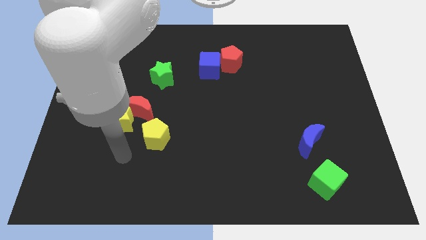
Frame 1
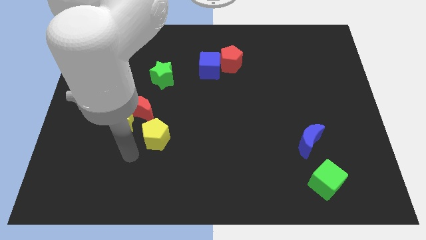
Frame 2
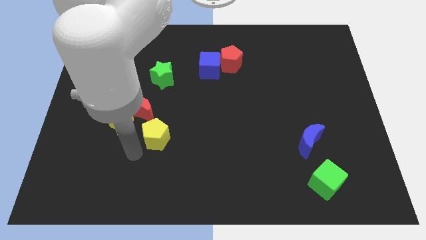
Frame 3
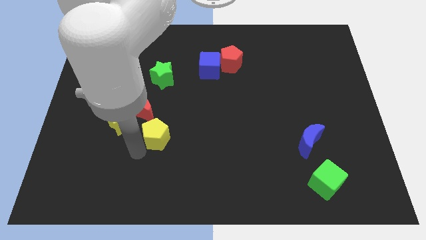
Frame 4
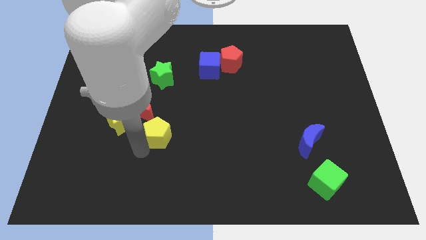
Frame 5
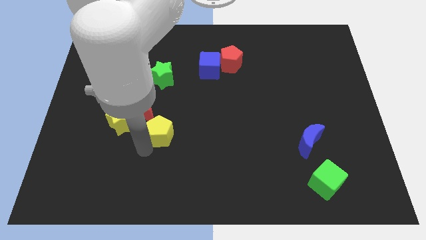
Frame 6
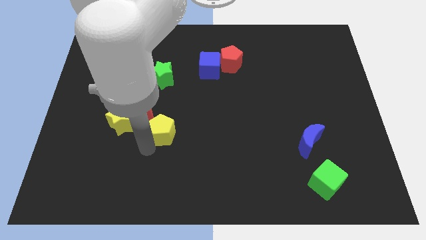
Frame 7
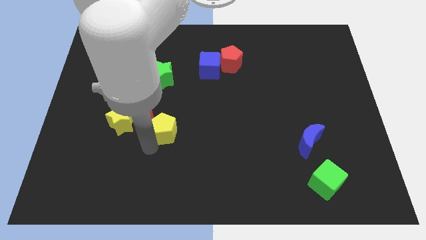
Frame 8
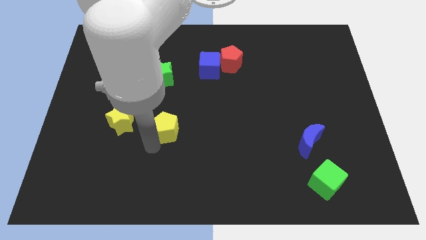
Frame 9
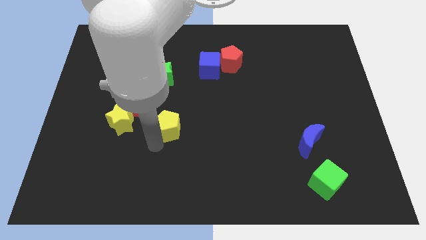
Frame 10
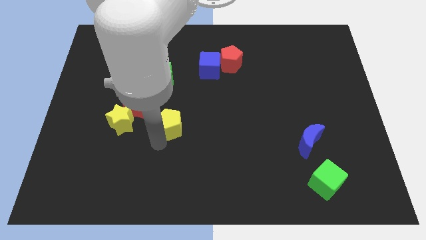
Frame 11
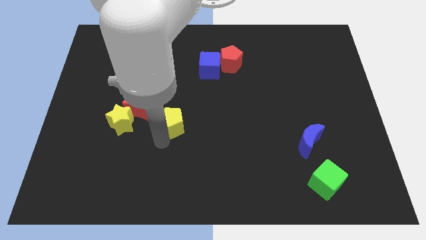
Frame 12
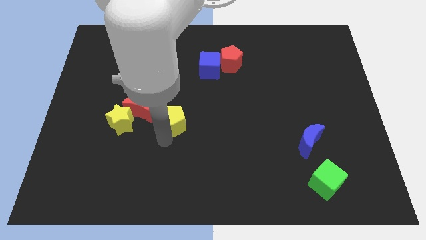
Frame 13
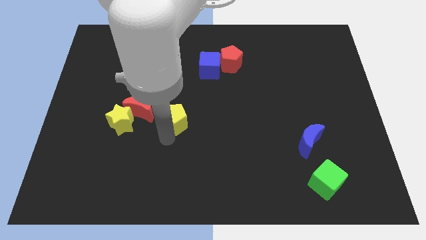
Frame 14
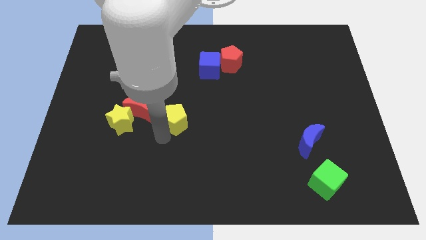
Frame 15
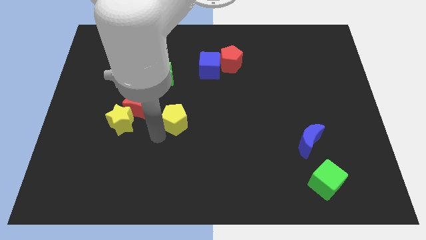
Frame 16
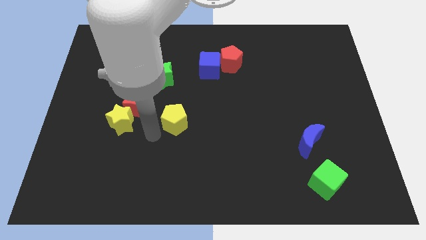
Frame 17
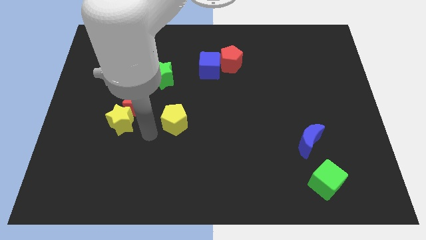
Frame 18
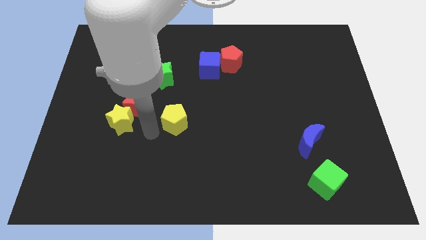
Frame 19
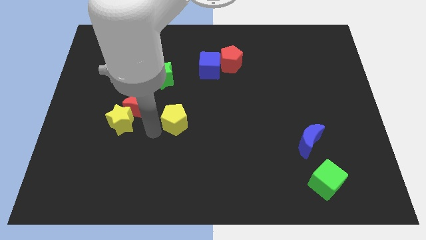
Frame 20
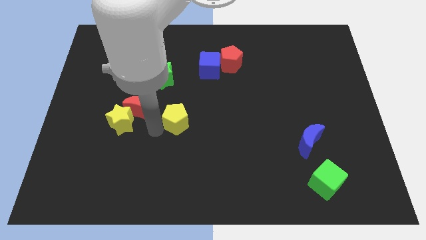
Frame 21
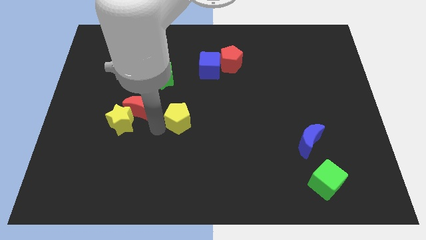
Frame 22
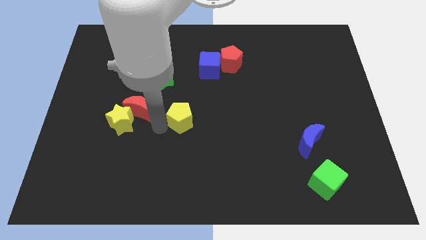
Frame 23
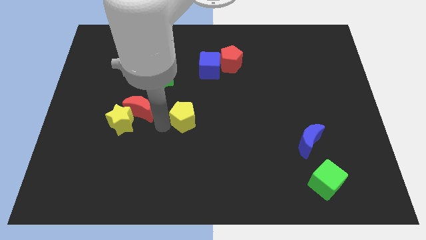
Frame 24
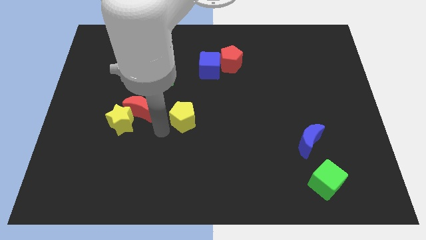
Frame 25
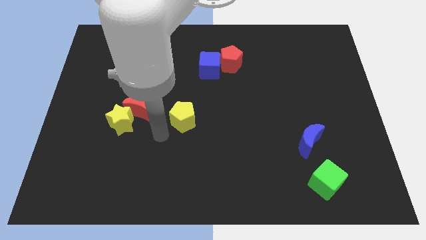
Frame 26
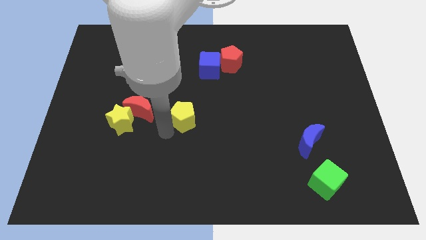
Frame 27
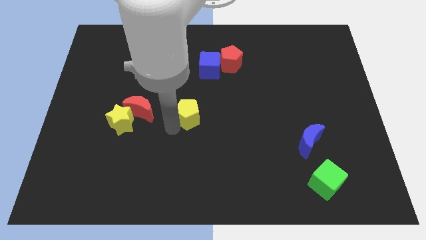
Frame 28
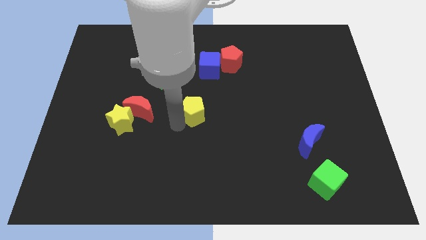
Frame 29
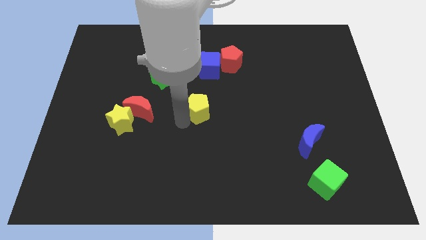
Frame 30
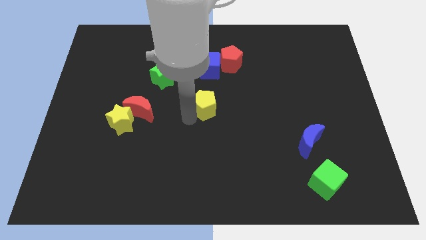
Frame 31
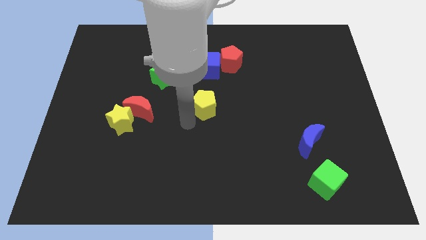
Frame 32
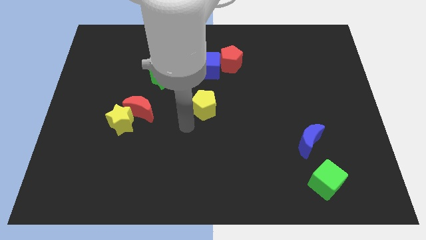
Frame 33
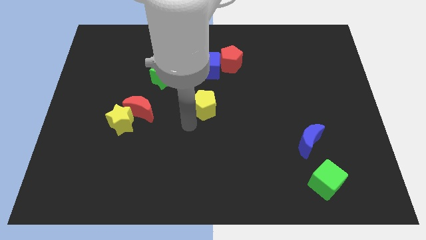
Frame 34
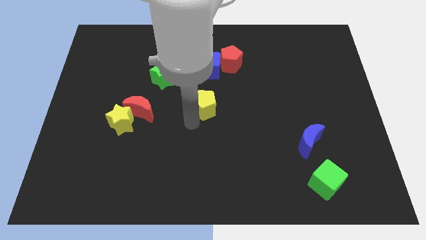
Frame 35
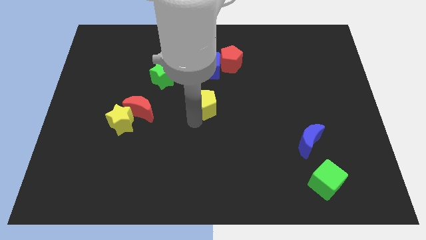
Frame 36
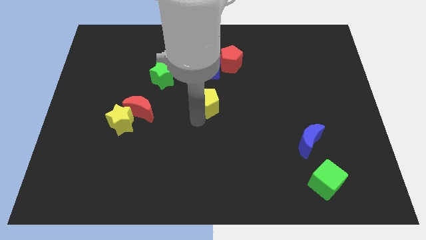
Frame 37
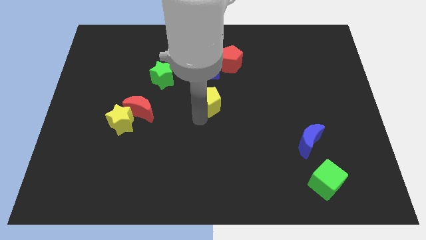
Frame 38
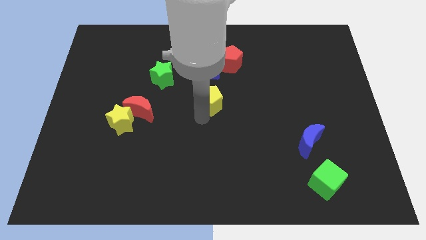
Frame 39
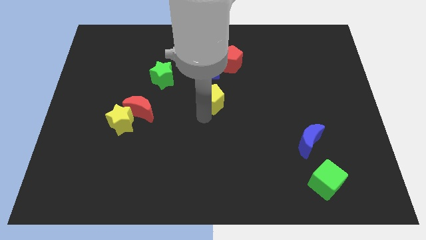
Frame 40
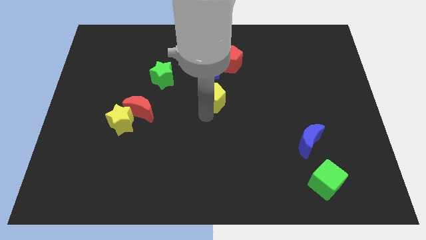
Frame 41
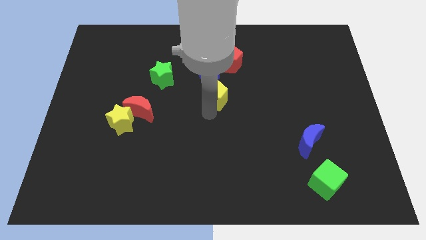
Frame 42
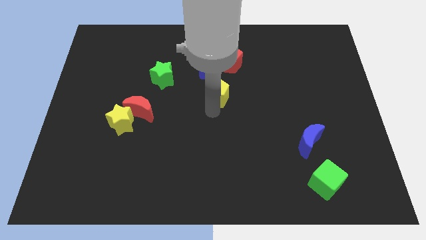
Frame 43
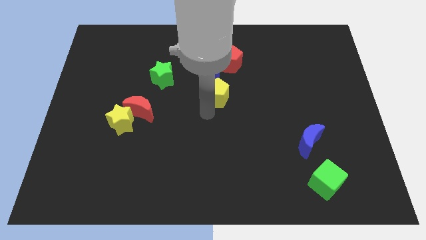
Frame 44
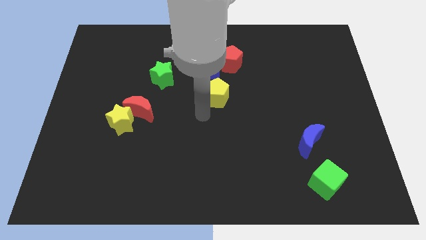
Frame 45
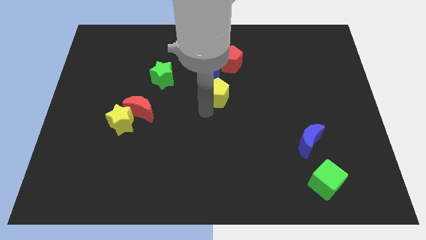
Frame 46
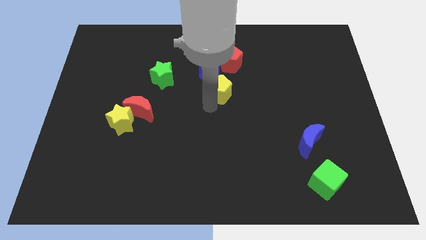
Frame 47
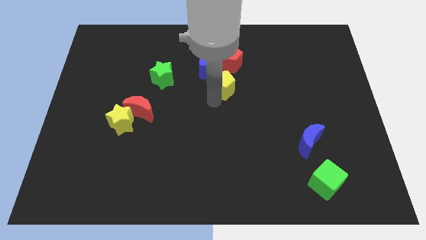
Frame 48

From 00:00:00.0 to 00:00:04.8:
slide the yellow pentagon upwards and then right

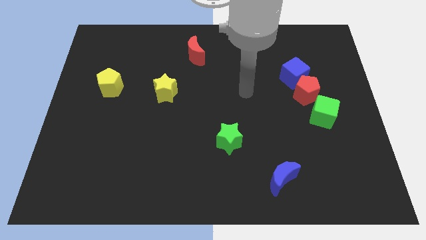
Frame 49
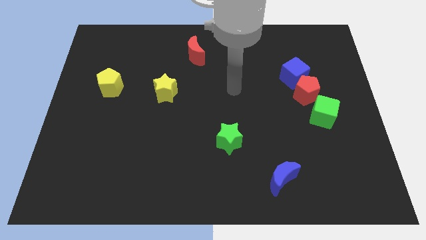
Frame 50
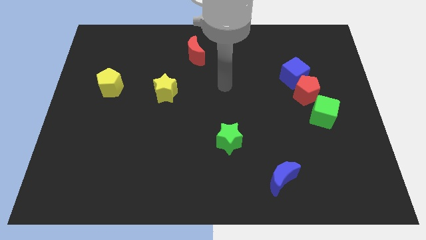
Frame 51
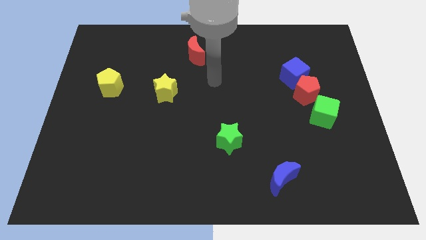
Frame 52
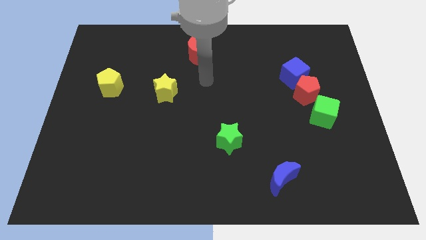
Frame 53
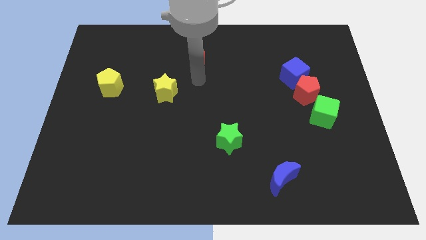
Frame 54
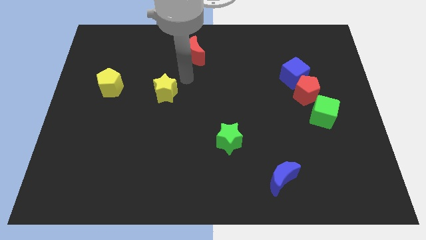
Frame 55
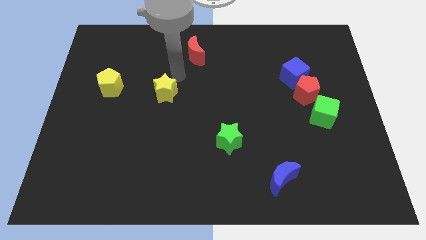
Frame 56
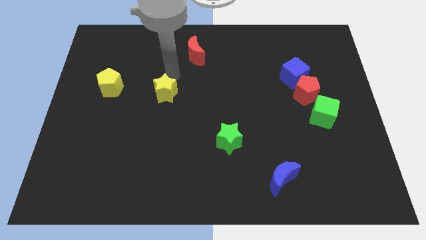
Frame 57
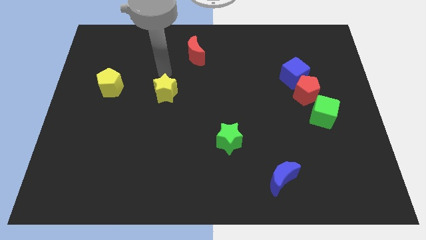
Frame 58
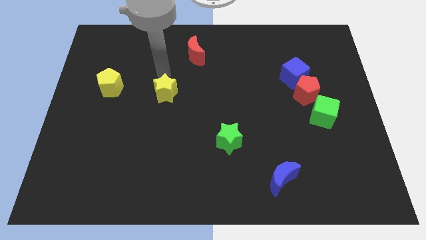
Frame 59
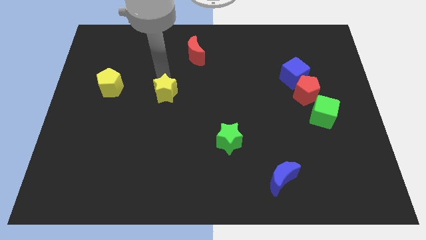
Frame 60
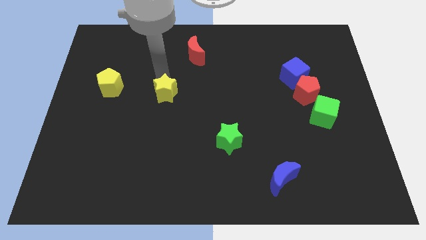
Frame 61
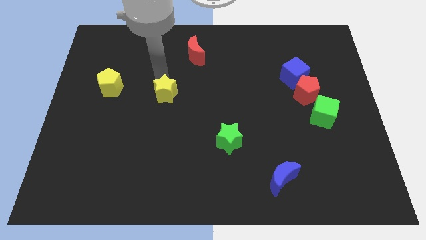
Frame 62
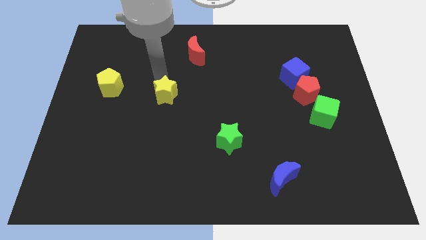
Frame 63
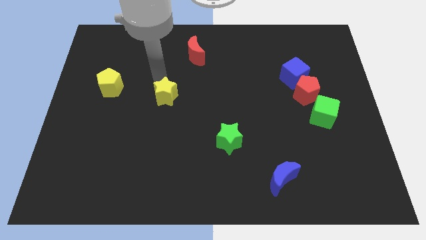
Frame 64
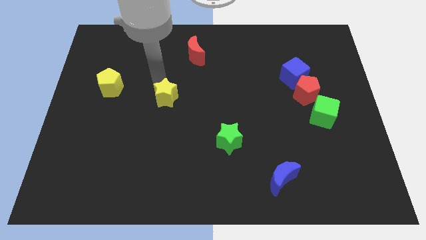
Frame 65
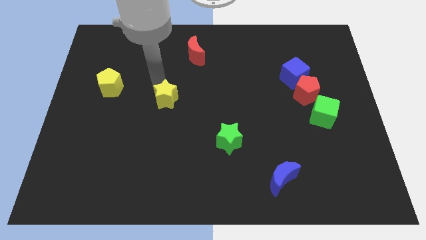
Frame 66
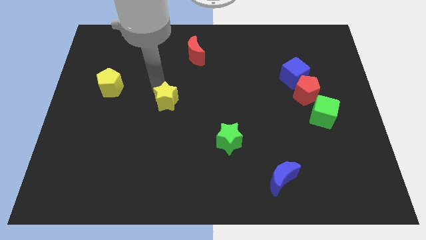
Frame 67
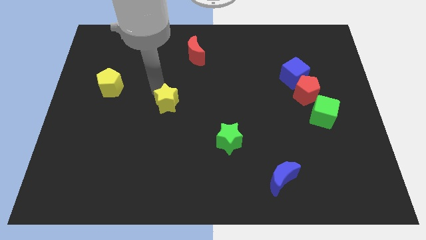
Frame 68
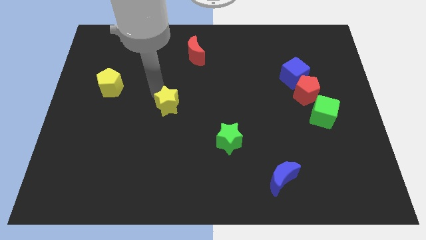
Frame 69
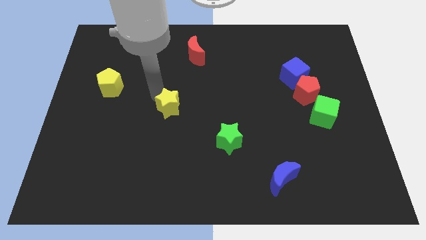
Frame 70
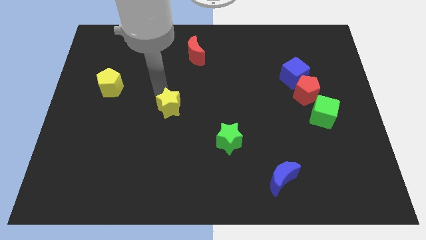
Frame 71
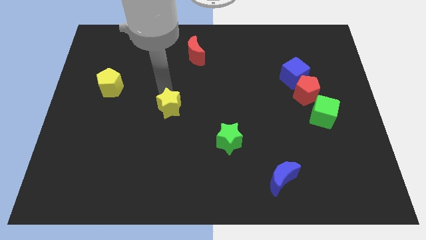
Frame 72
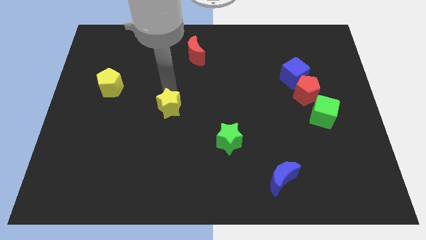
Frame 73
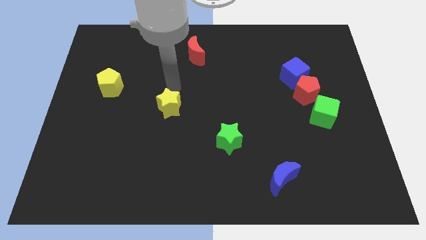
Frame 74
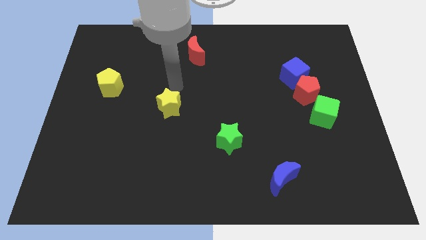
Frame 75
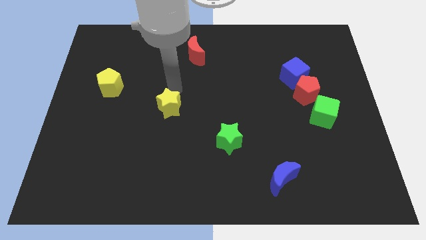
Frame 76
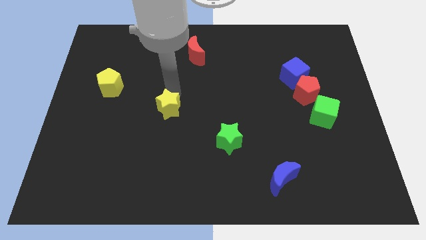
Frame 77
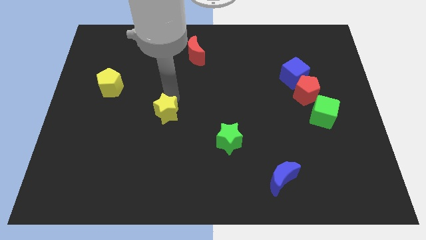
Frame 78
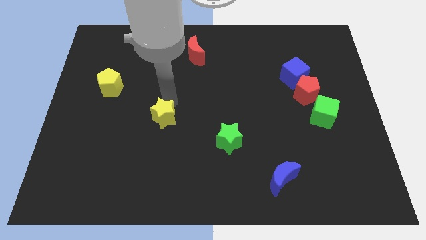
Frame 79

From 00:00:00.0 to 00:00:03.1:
move the yellow star slightly down
